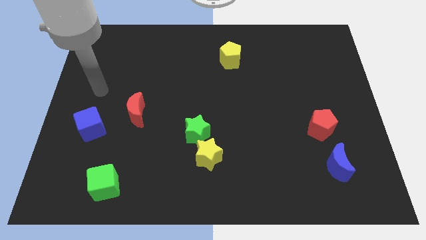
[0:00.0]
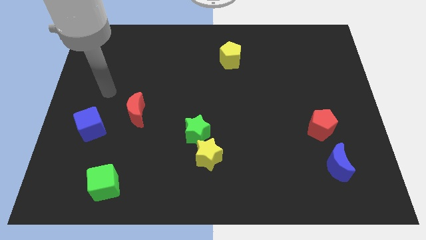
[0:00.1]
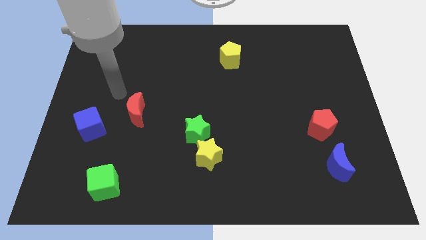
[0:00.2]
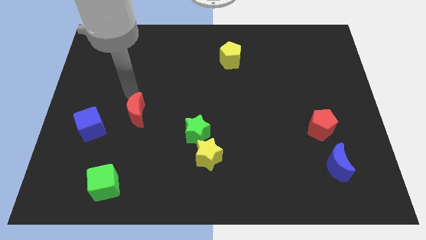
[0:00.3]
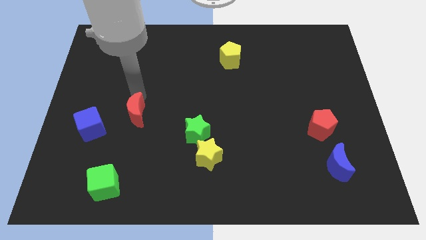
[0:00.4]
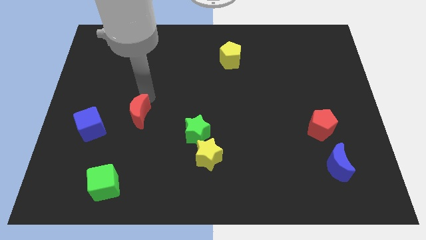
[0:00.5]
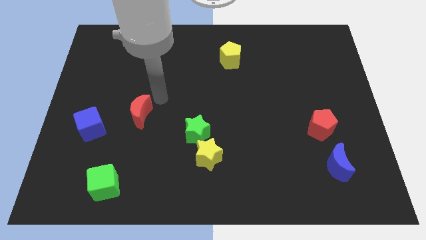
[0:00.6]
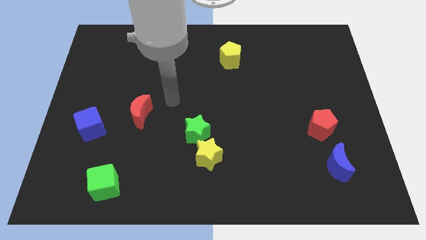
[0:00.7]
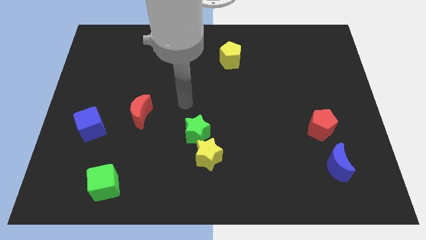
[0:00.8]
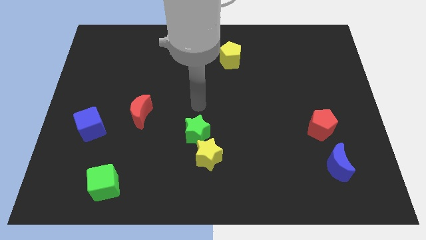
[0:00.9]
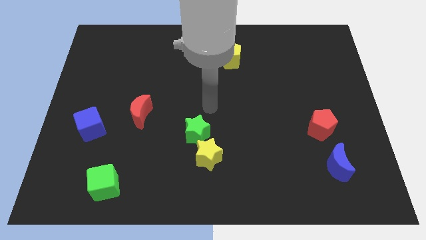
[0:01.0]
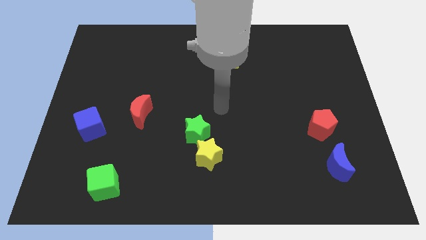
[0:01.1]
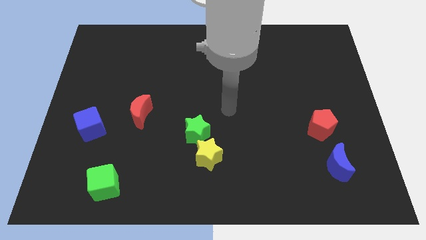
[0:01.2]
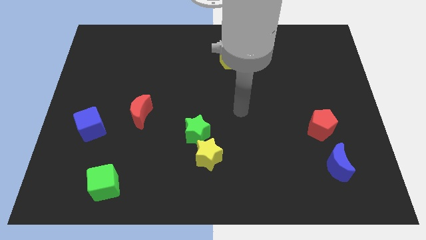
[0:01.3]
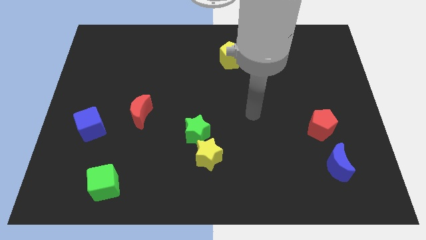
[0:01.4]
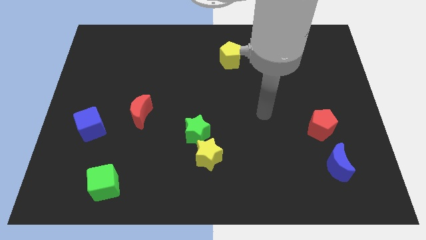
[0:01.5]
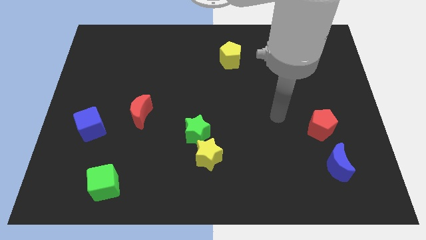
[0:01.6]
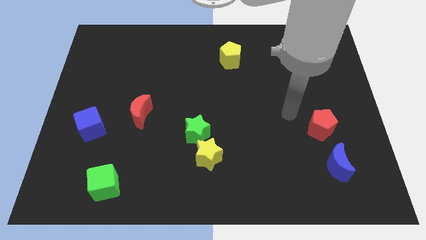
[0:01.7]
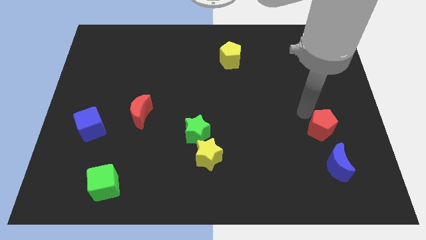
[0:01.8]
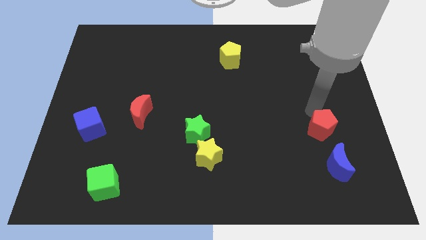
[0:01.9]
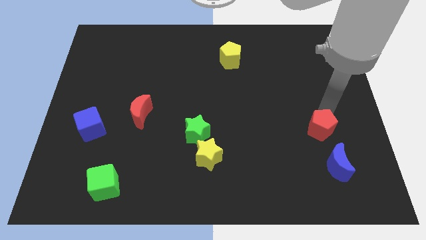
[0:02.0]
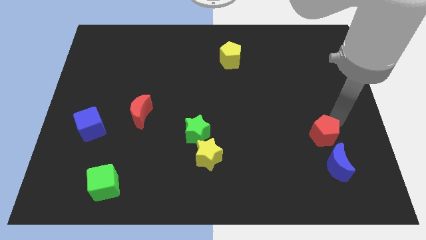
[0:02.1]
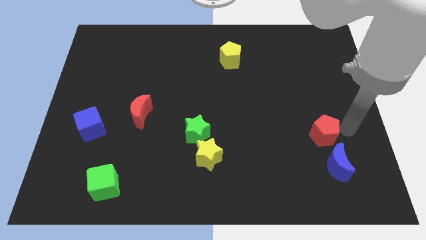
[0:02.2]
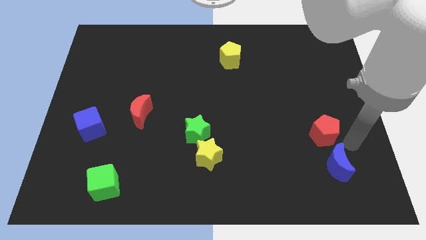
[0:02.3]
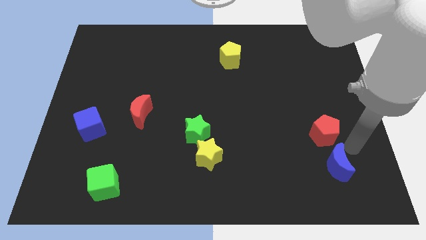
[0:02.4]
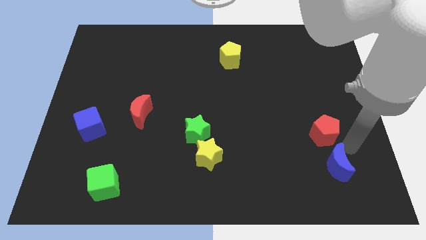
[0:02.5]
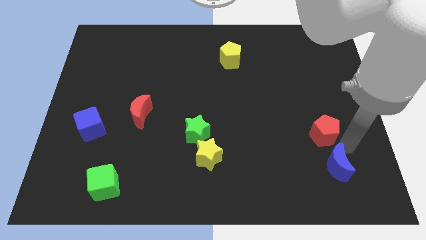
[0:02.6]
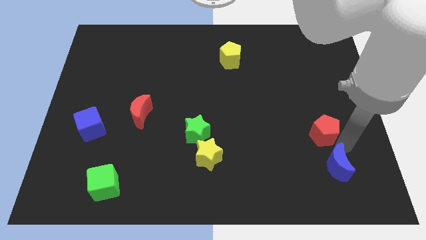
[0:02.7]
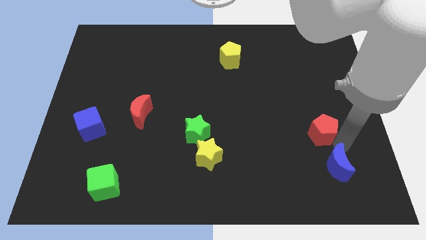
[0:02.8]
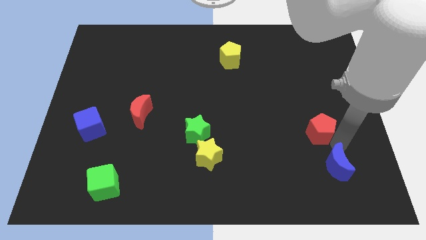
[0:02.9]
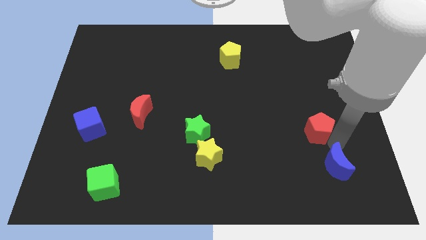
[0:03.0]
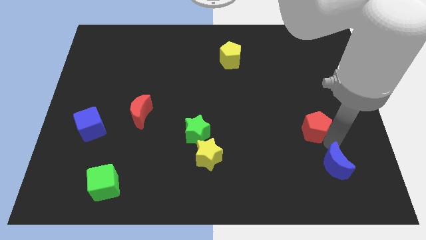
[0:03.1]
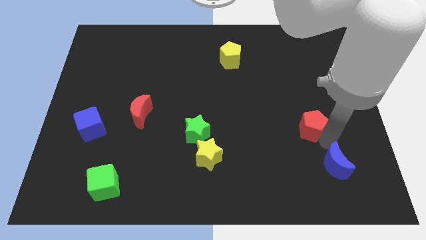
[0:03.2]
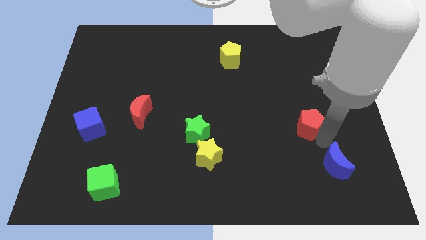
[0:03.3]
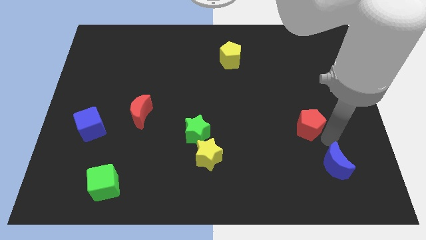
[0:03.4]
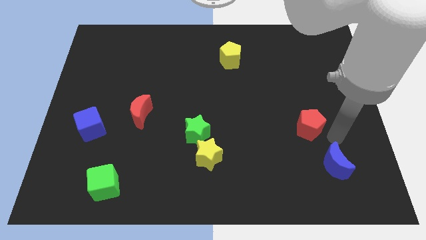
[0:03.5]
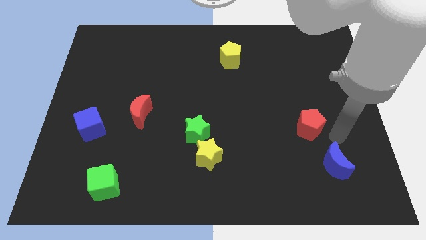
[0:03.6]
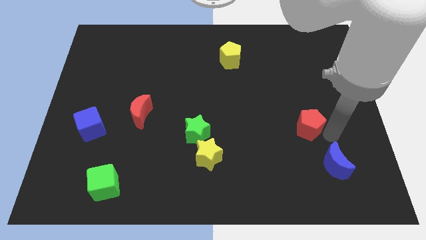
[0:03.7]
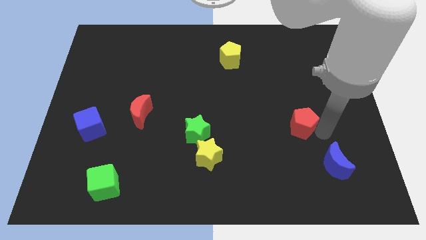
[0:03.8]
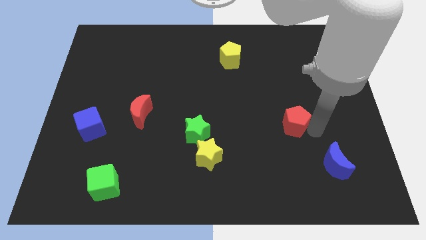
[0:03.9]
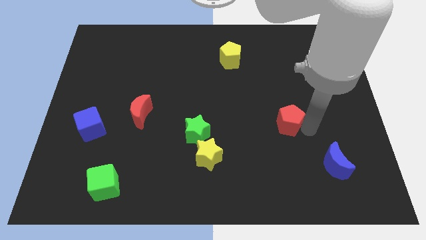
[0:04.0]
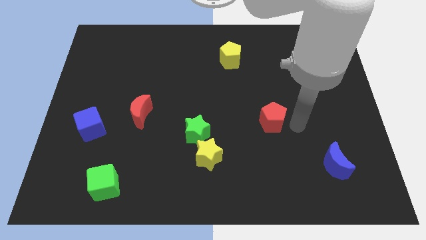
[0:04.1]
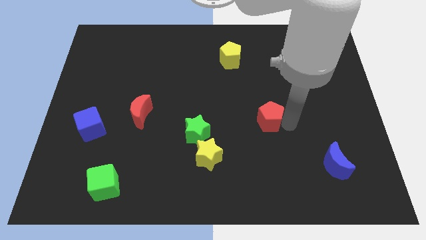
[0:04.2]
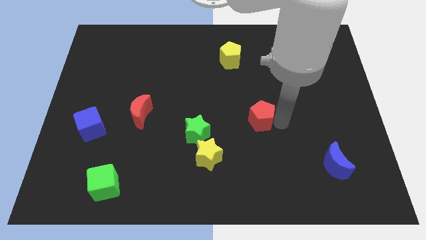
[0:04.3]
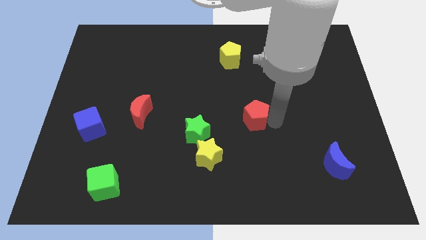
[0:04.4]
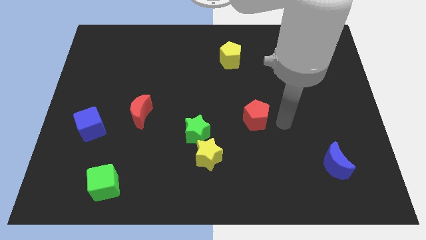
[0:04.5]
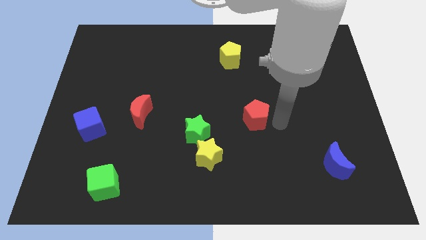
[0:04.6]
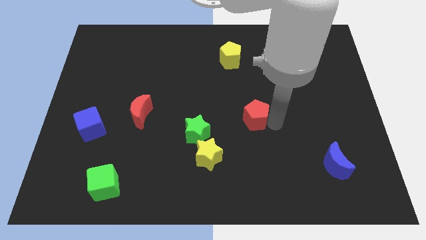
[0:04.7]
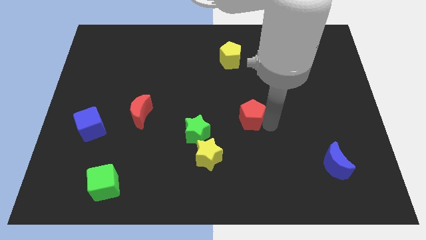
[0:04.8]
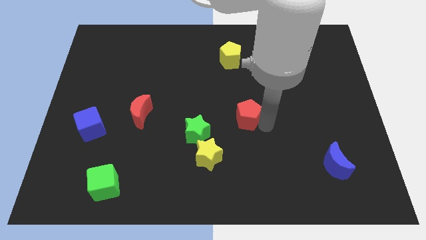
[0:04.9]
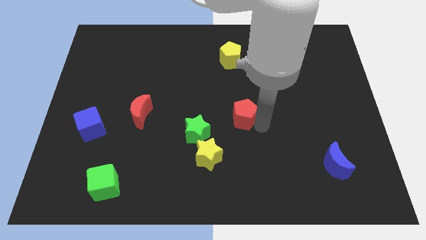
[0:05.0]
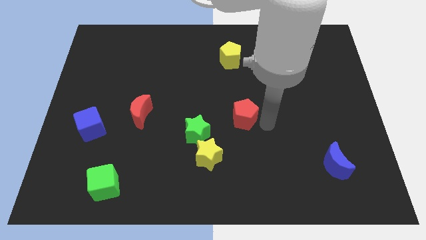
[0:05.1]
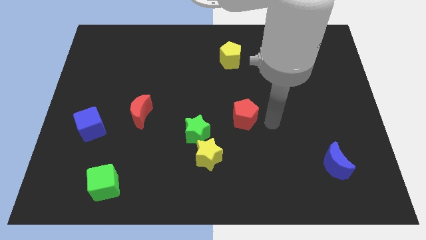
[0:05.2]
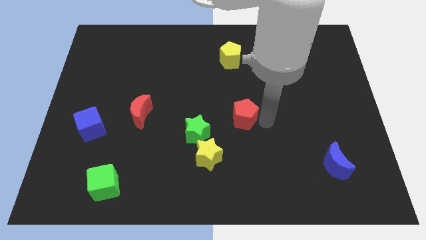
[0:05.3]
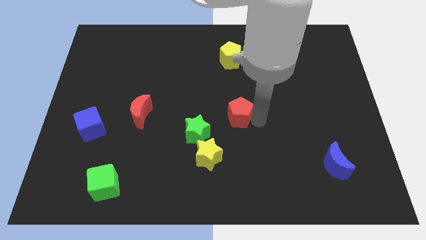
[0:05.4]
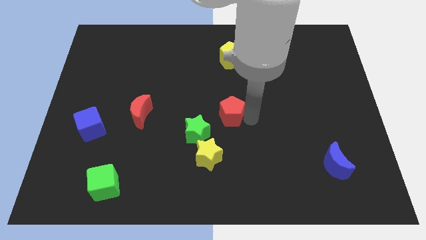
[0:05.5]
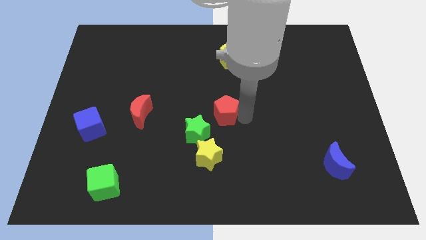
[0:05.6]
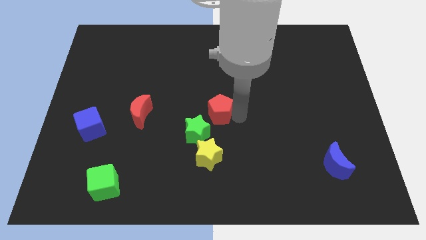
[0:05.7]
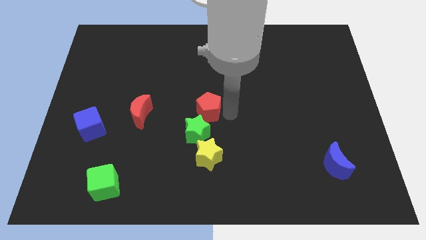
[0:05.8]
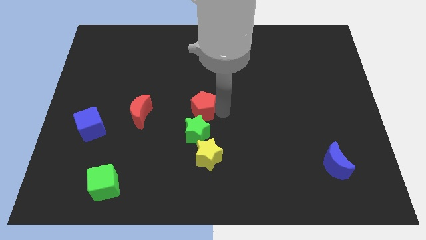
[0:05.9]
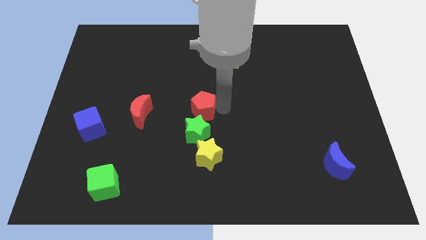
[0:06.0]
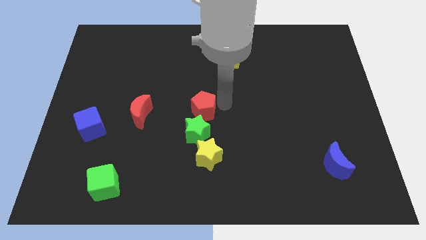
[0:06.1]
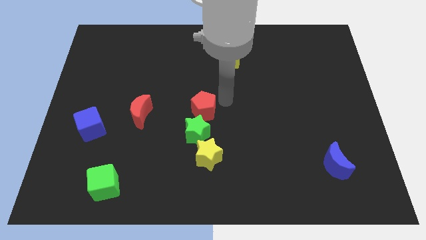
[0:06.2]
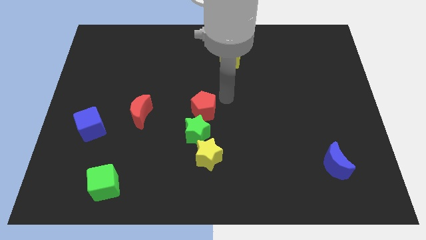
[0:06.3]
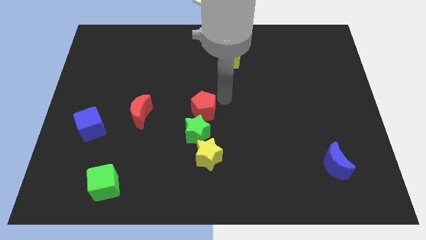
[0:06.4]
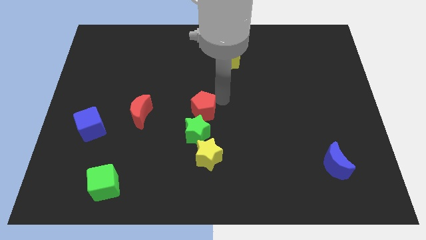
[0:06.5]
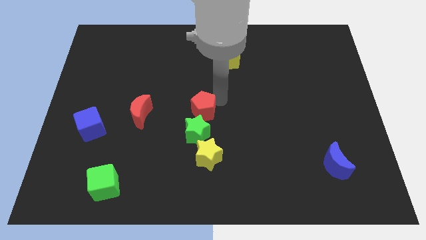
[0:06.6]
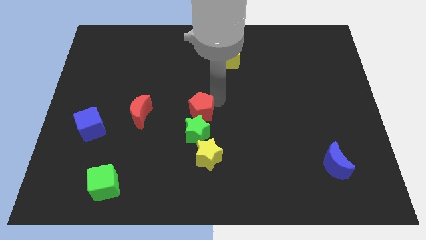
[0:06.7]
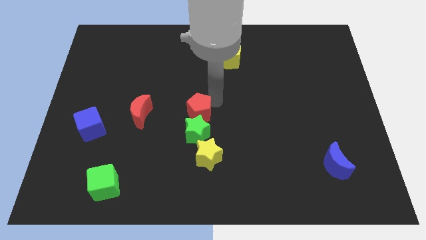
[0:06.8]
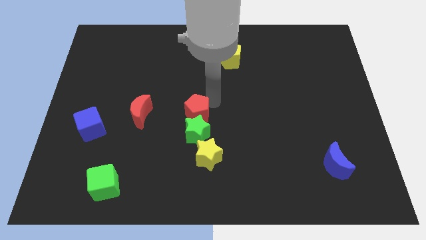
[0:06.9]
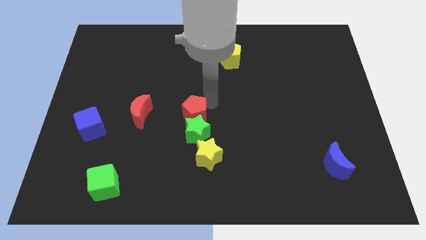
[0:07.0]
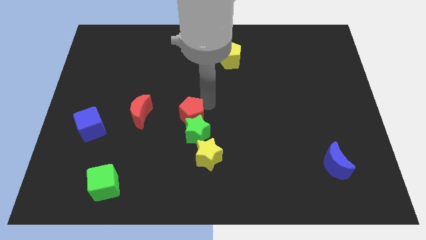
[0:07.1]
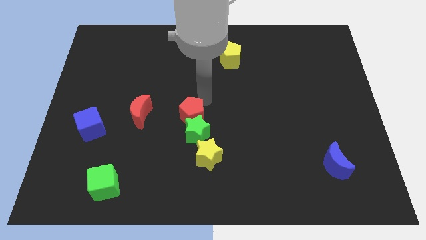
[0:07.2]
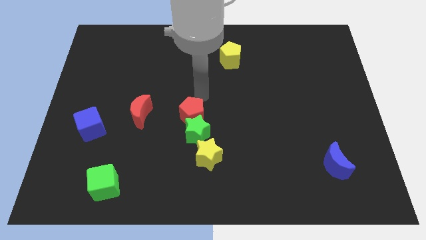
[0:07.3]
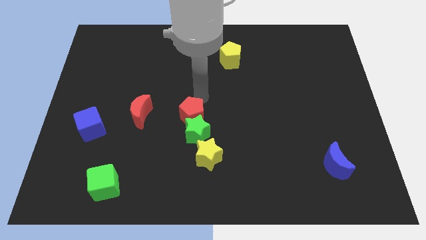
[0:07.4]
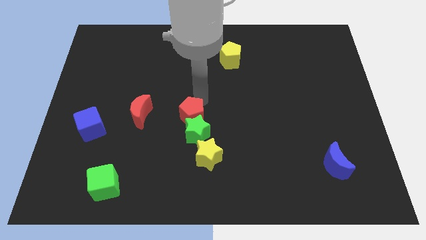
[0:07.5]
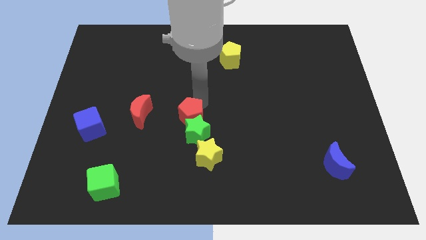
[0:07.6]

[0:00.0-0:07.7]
put the red pentagon diagonally up and to the left of the yellow star
